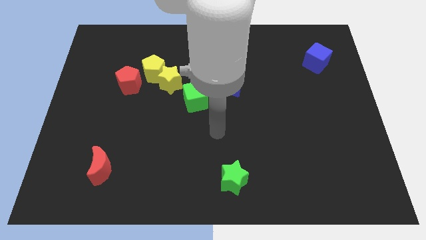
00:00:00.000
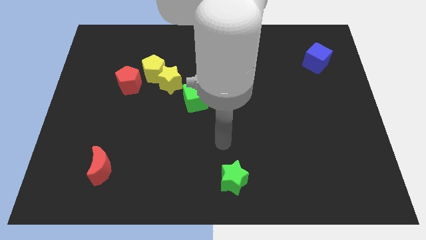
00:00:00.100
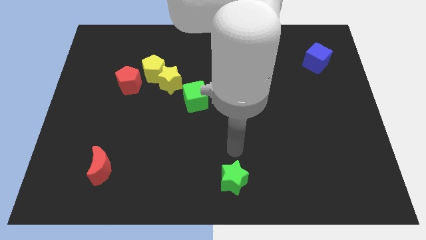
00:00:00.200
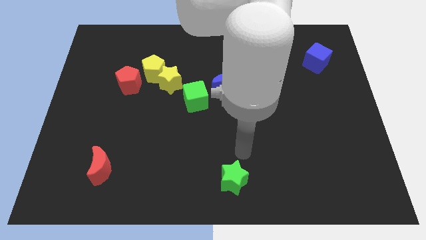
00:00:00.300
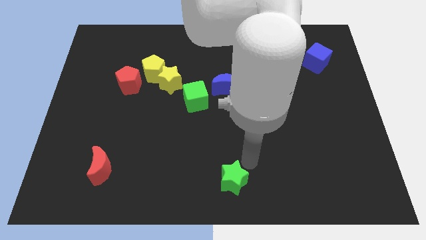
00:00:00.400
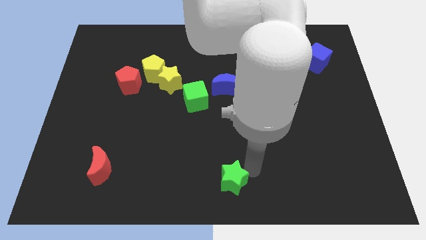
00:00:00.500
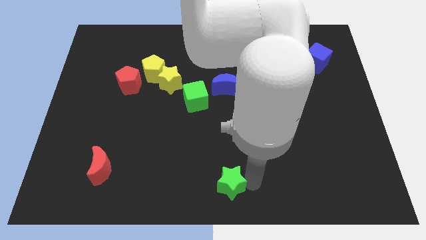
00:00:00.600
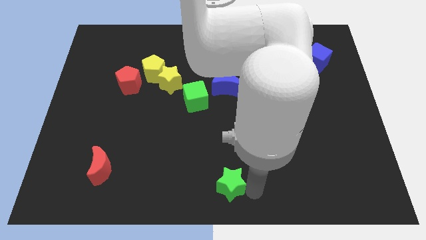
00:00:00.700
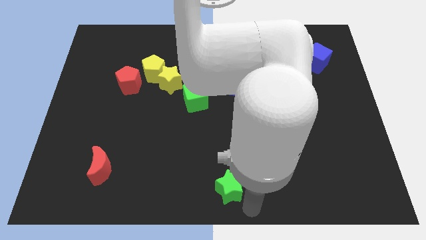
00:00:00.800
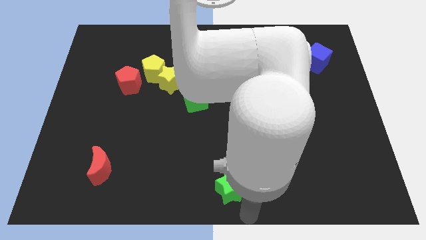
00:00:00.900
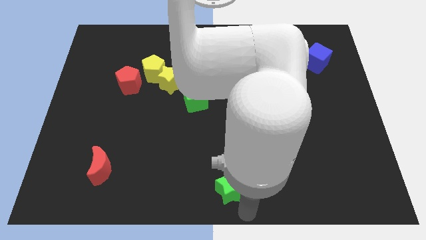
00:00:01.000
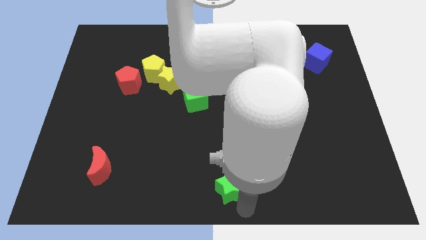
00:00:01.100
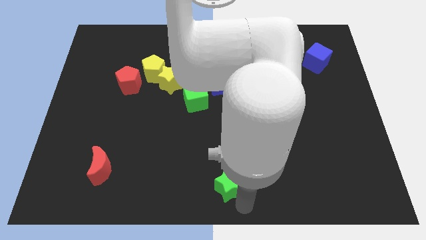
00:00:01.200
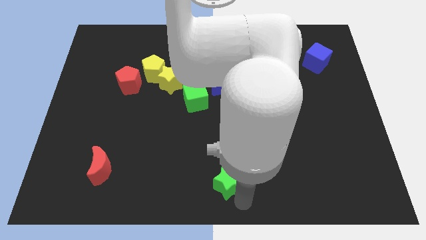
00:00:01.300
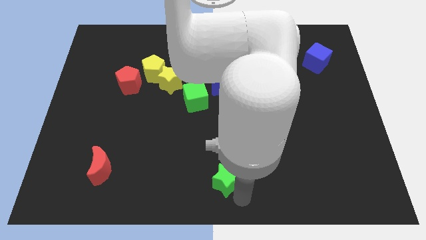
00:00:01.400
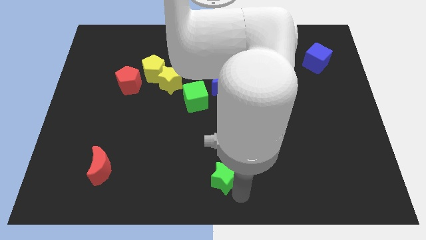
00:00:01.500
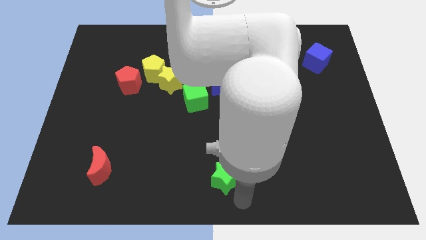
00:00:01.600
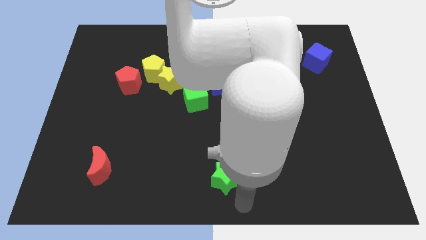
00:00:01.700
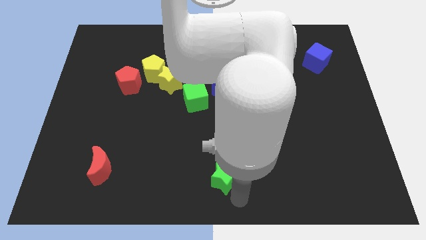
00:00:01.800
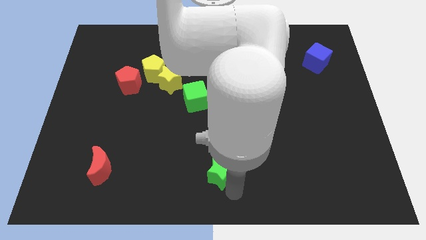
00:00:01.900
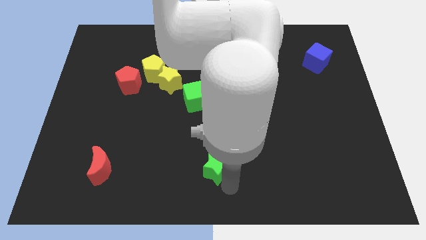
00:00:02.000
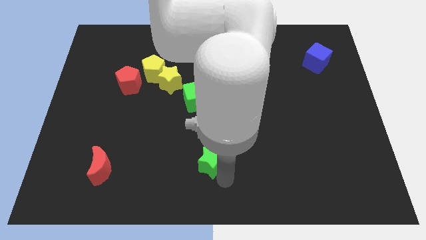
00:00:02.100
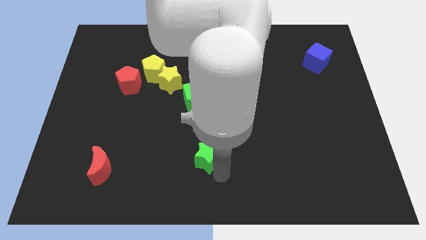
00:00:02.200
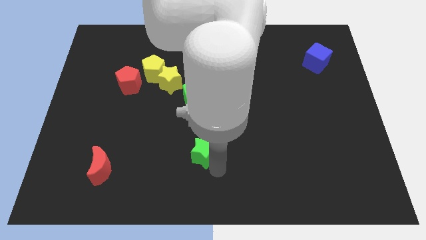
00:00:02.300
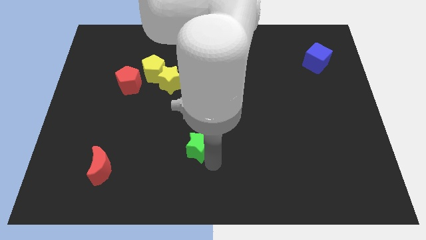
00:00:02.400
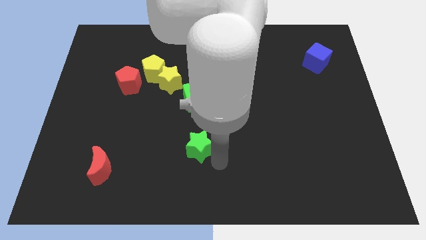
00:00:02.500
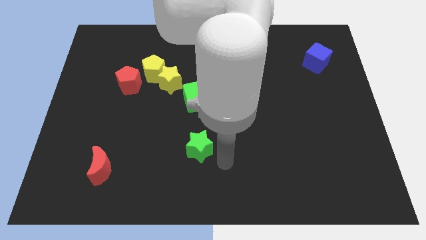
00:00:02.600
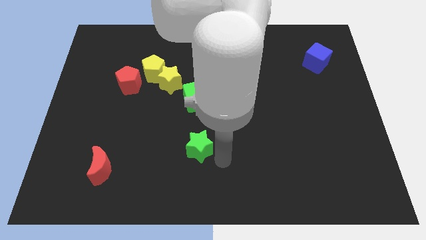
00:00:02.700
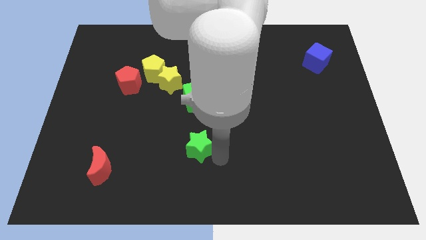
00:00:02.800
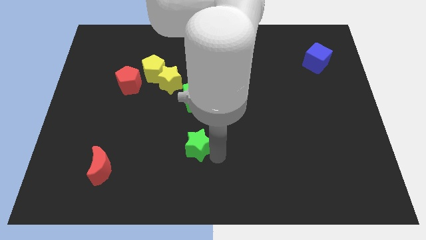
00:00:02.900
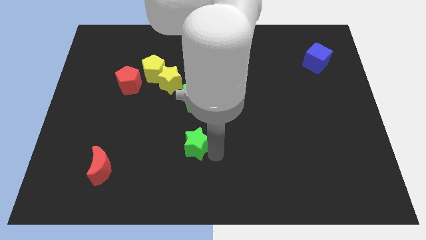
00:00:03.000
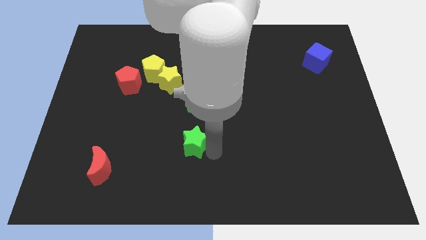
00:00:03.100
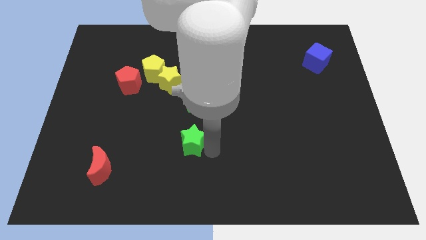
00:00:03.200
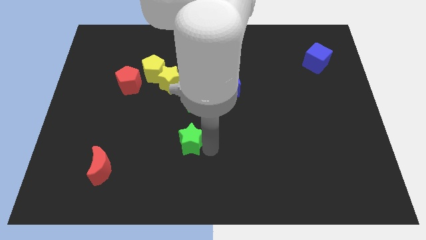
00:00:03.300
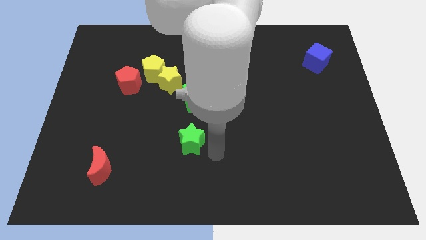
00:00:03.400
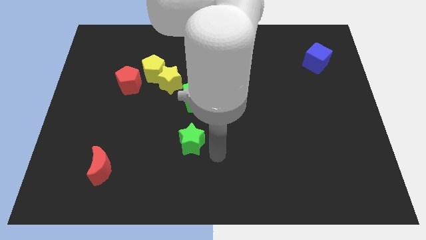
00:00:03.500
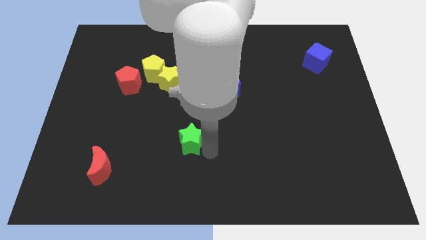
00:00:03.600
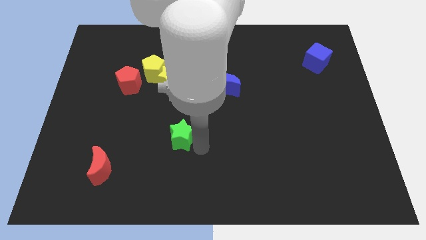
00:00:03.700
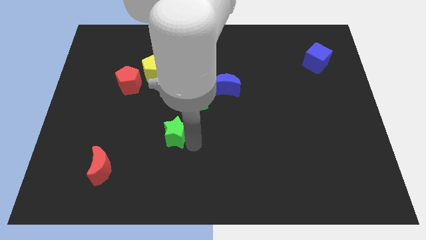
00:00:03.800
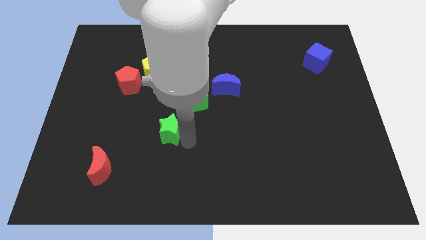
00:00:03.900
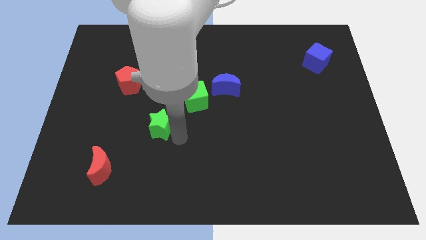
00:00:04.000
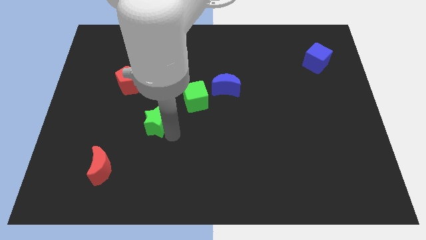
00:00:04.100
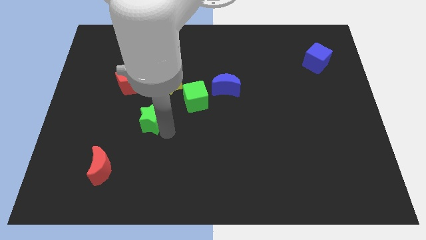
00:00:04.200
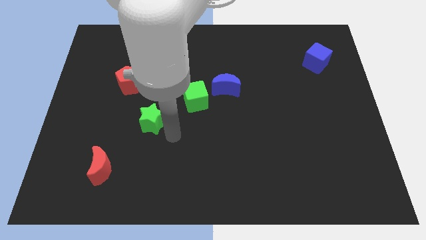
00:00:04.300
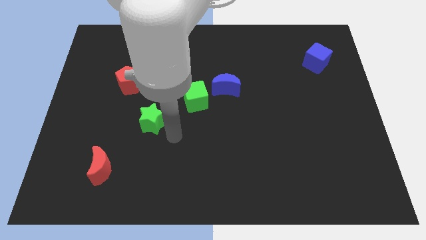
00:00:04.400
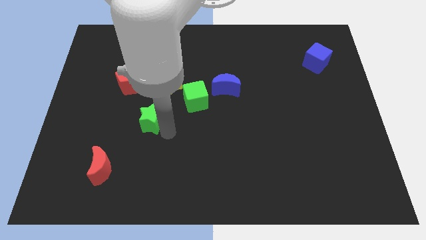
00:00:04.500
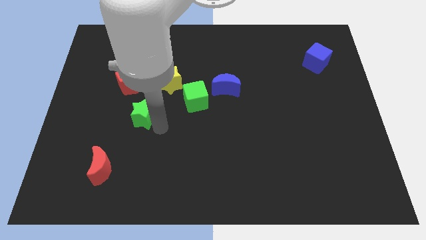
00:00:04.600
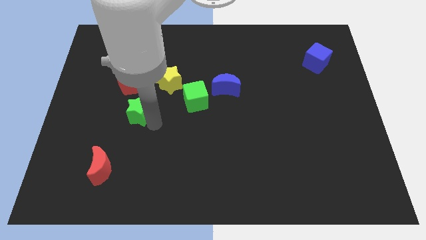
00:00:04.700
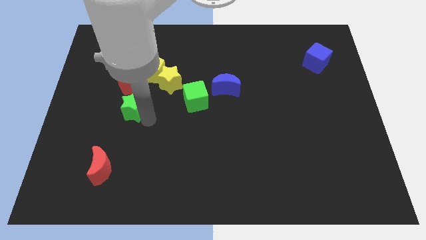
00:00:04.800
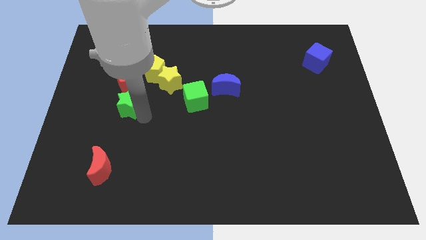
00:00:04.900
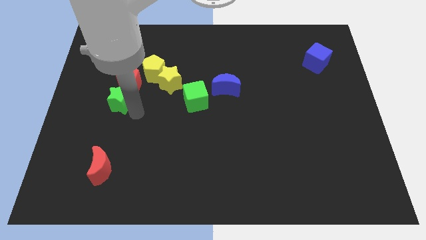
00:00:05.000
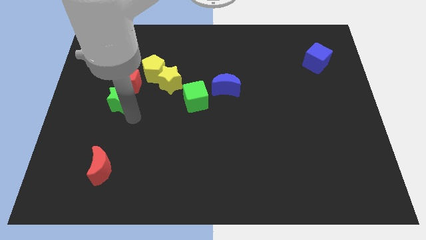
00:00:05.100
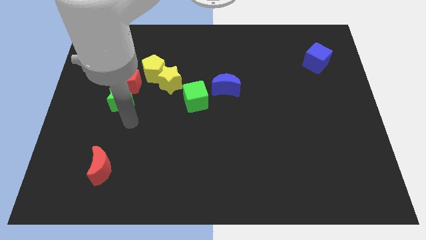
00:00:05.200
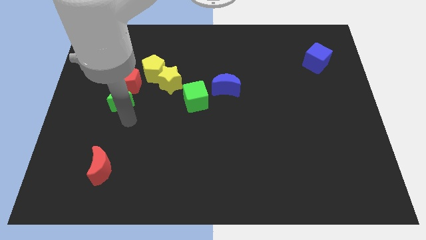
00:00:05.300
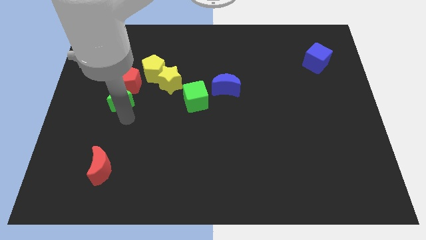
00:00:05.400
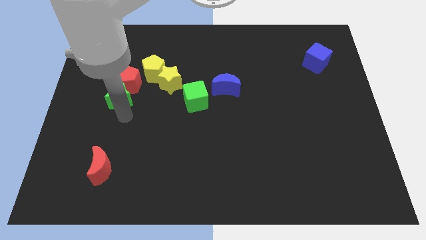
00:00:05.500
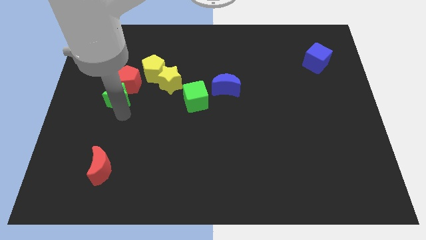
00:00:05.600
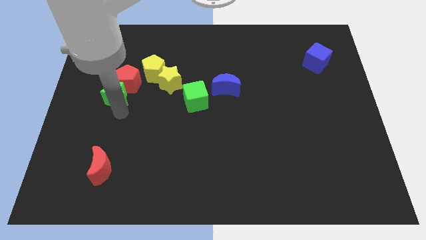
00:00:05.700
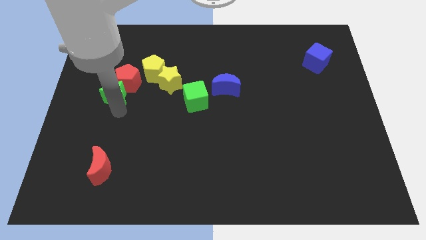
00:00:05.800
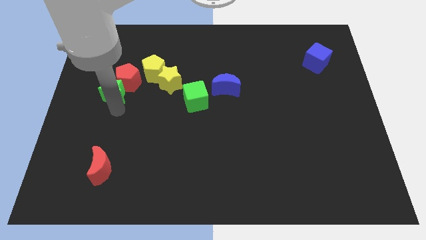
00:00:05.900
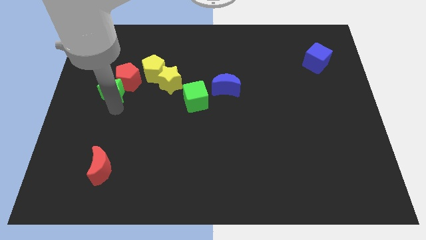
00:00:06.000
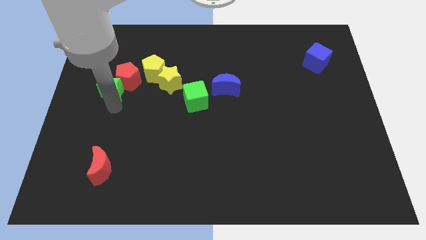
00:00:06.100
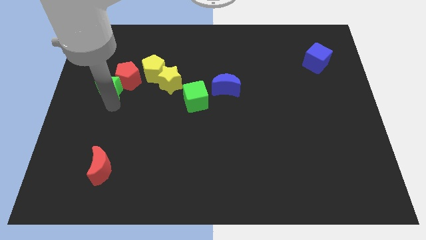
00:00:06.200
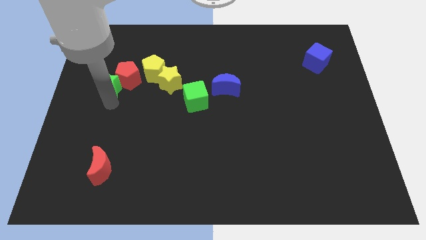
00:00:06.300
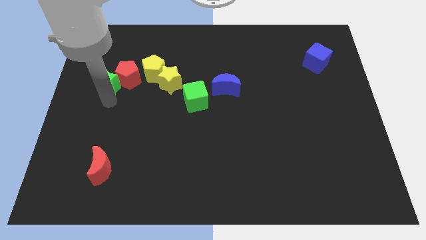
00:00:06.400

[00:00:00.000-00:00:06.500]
slide the green star left of the yellow pentagon

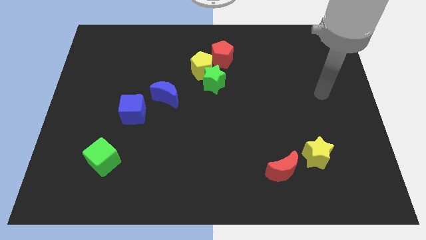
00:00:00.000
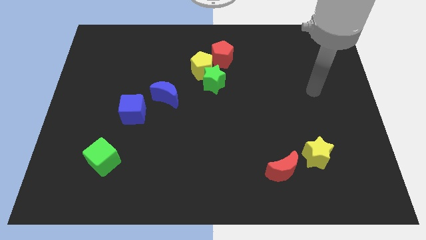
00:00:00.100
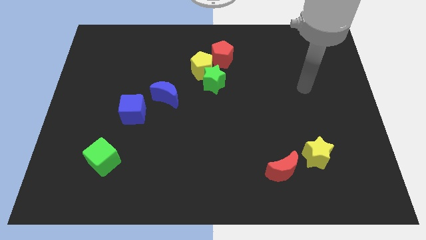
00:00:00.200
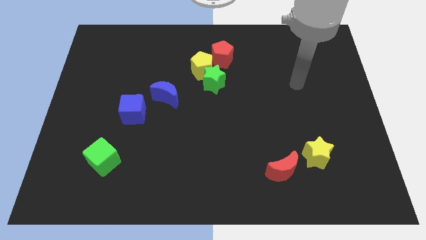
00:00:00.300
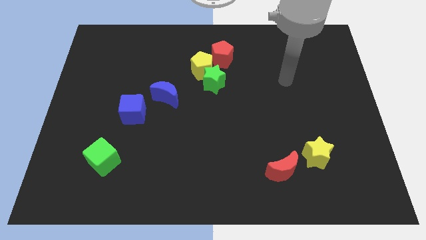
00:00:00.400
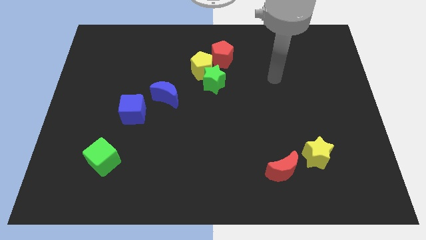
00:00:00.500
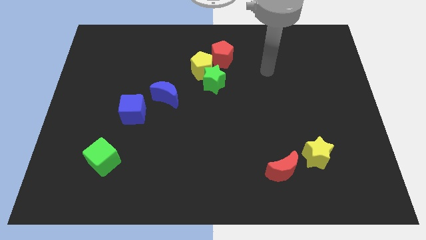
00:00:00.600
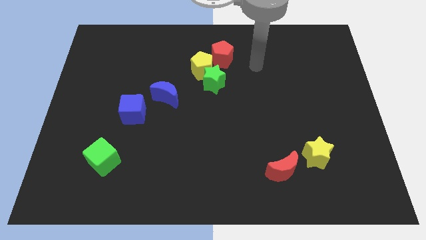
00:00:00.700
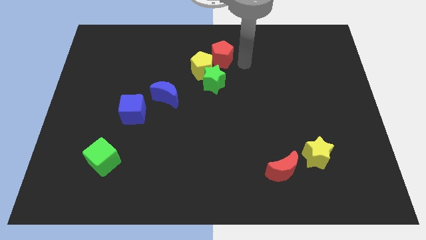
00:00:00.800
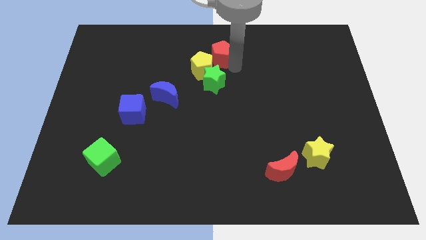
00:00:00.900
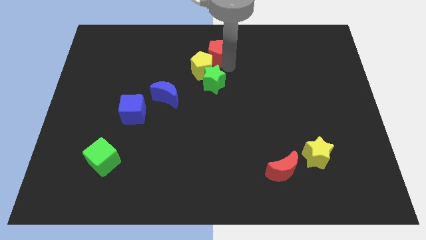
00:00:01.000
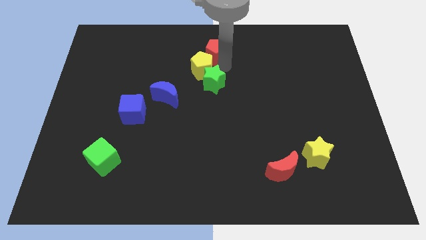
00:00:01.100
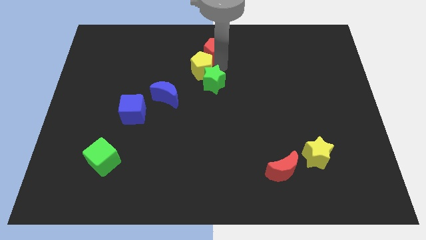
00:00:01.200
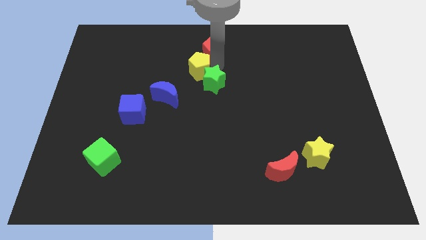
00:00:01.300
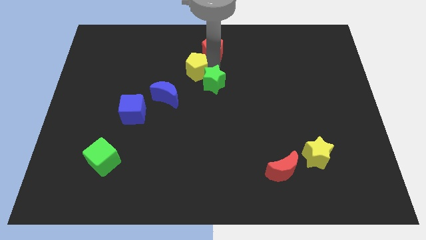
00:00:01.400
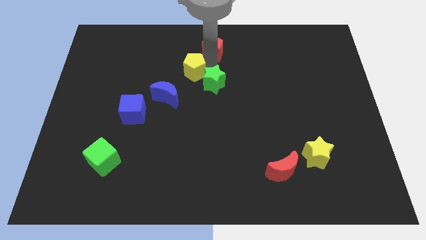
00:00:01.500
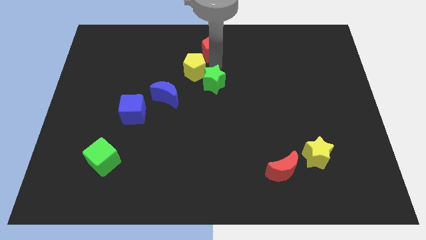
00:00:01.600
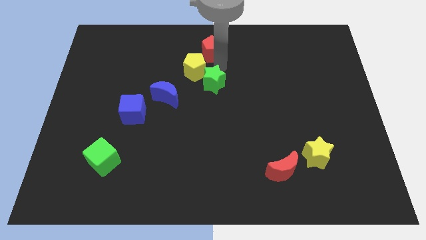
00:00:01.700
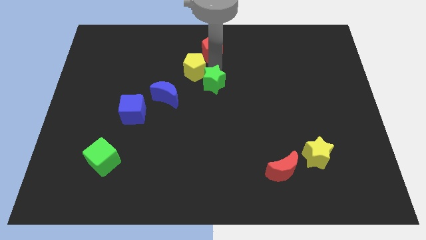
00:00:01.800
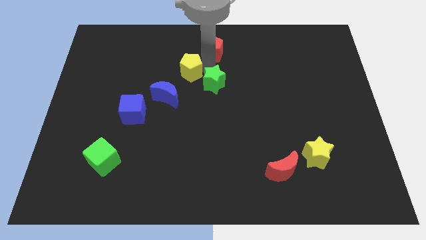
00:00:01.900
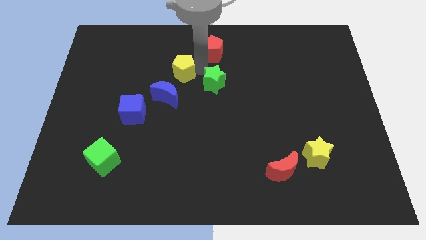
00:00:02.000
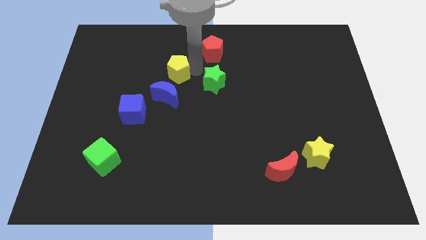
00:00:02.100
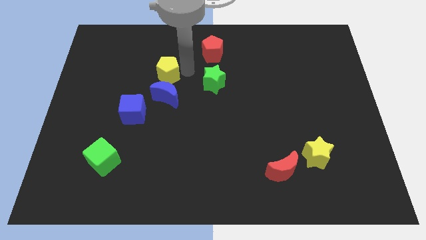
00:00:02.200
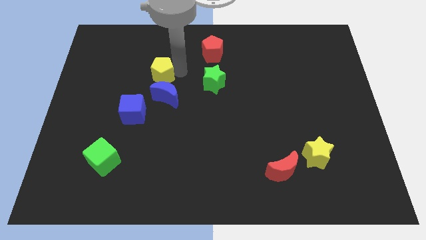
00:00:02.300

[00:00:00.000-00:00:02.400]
move the yellow pentagon diagonally up and to the left of the blue moon

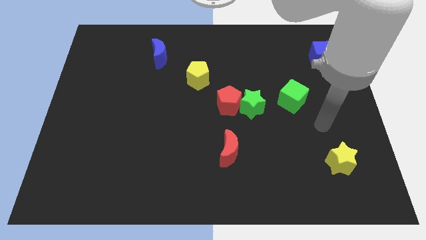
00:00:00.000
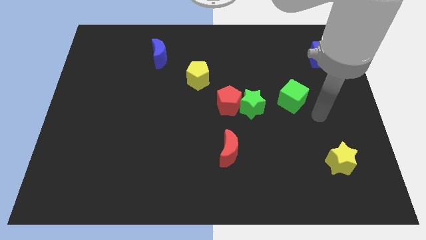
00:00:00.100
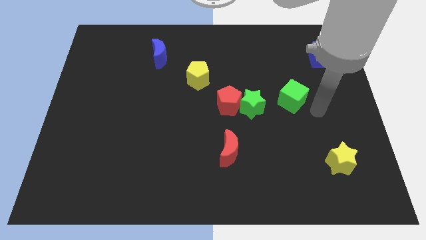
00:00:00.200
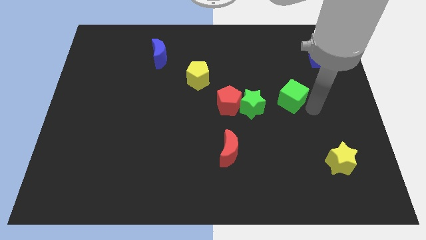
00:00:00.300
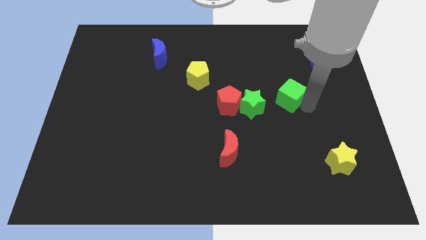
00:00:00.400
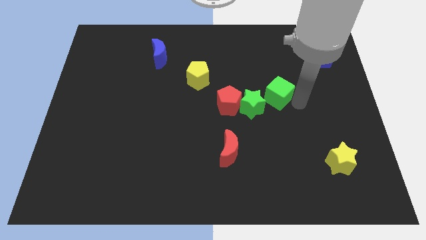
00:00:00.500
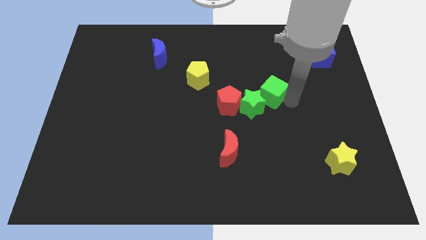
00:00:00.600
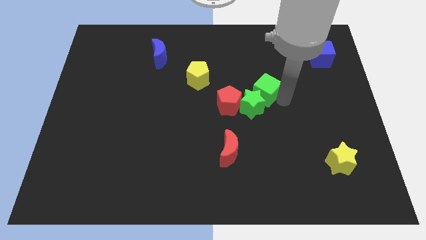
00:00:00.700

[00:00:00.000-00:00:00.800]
slide the green cube to the top of the green star
